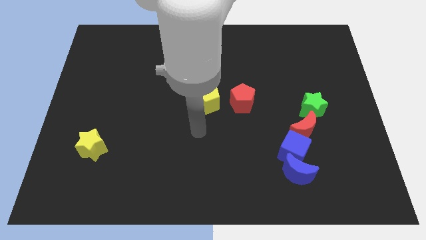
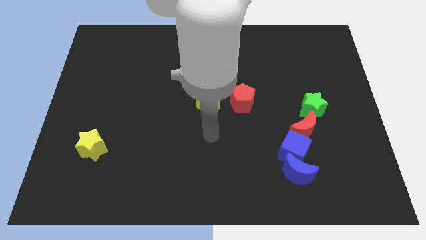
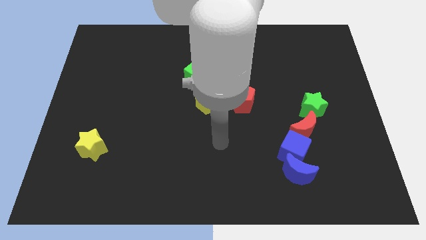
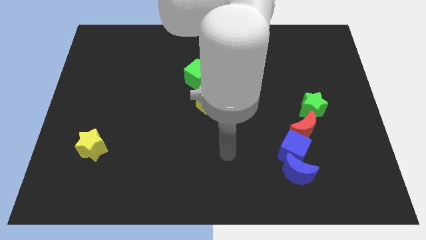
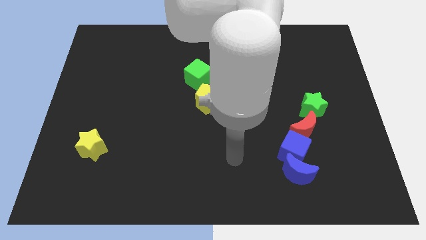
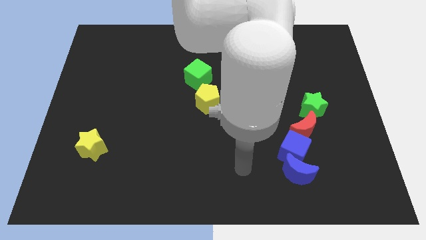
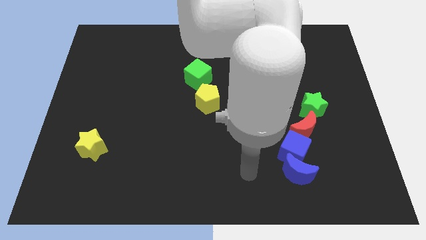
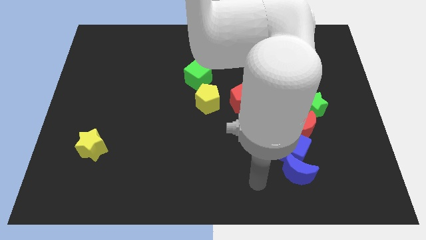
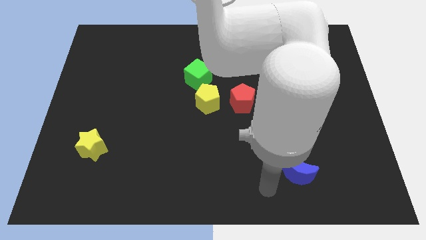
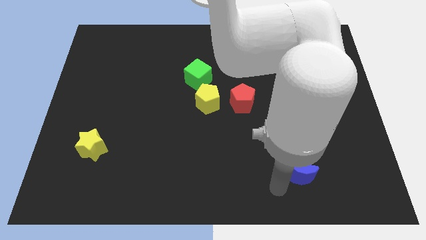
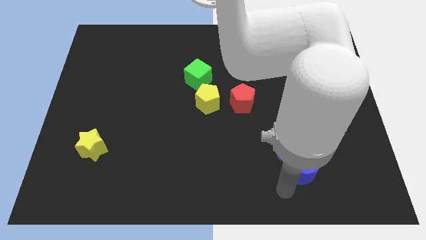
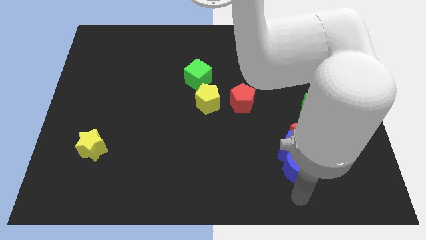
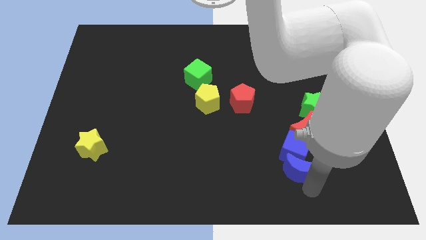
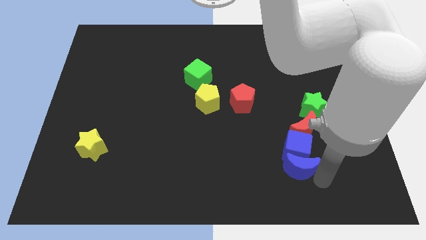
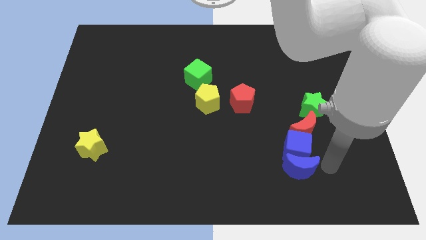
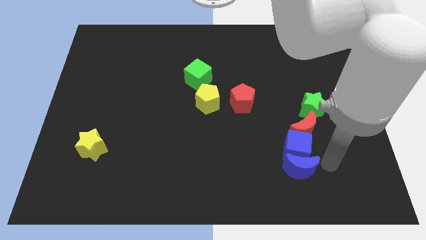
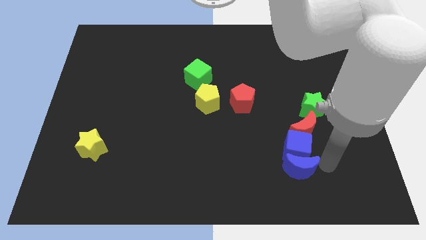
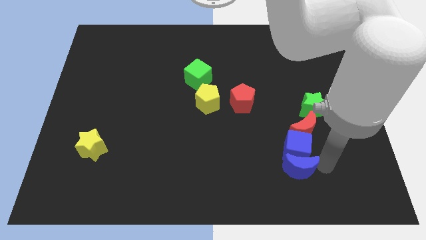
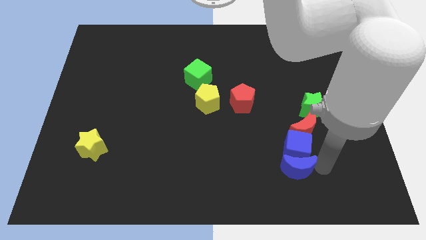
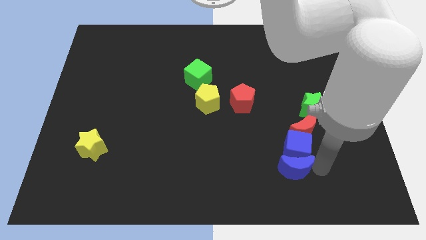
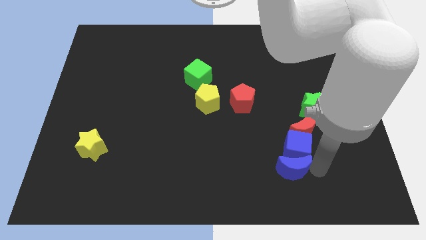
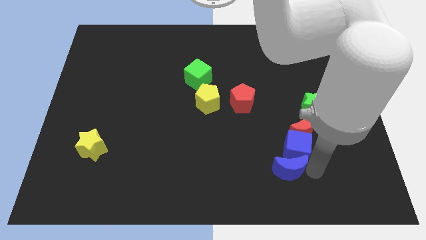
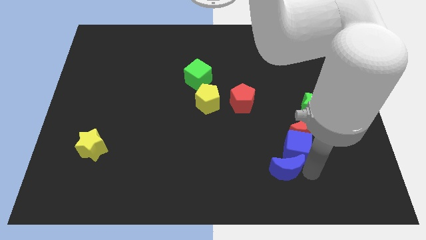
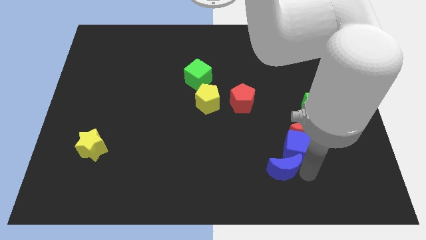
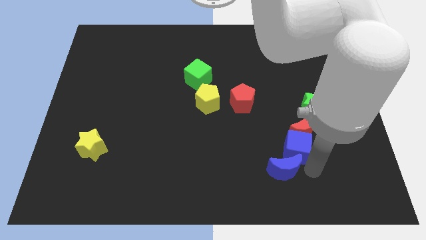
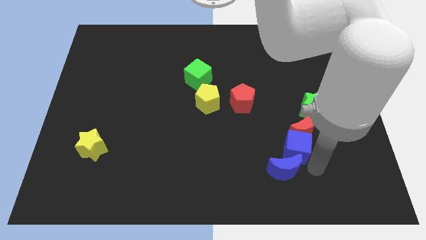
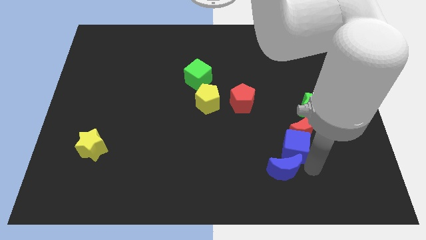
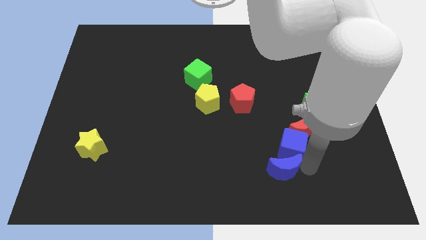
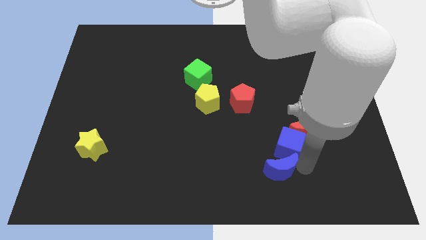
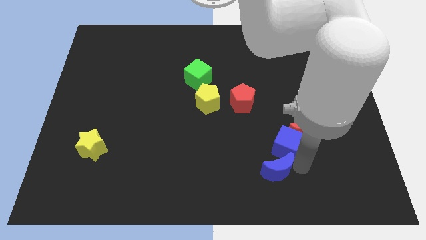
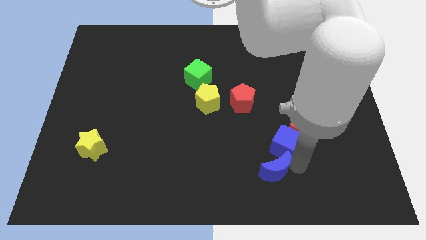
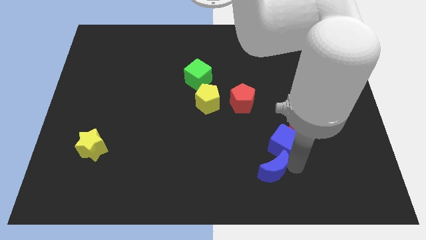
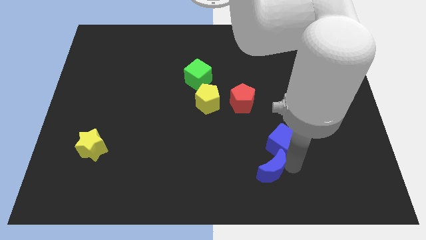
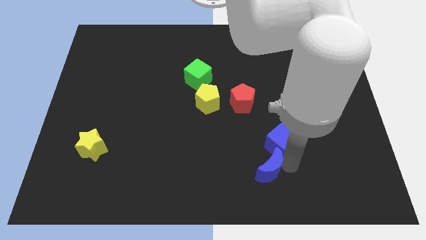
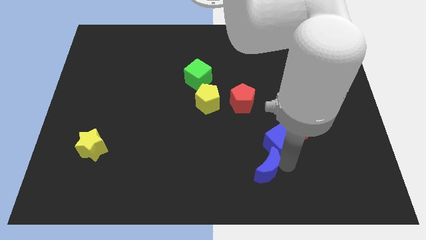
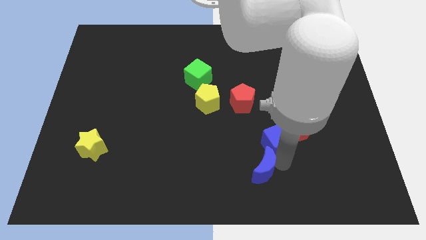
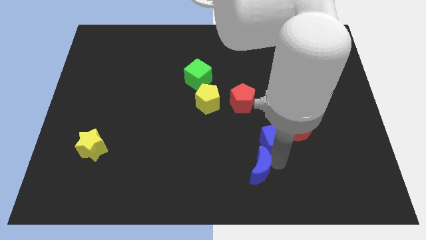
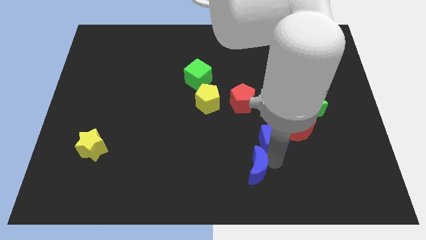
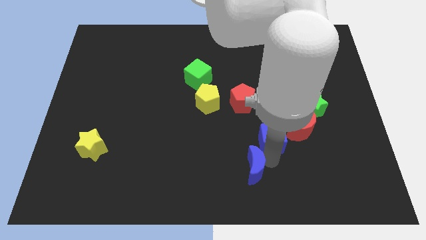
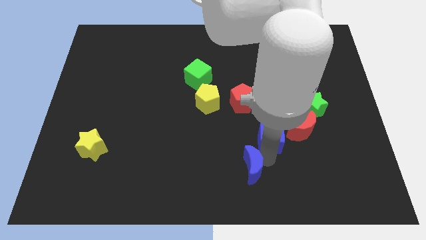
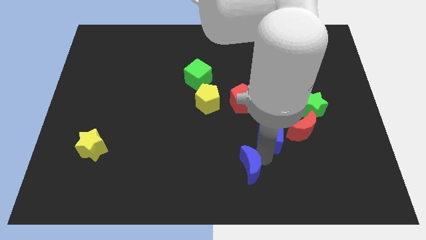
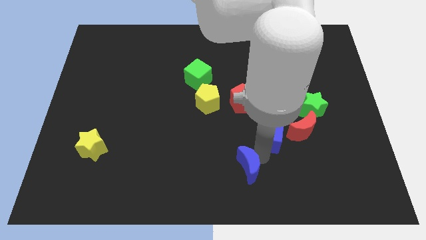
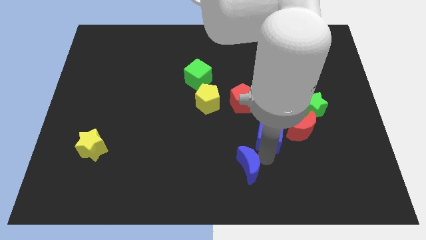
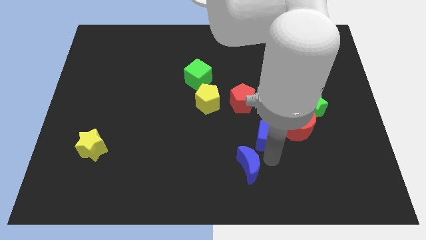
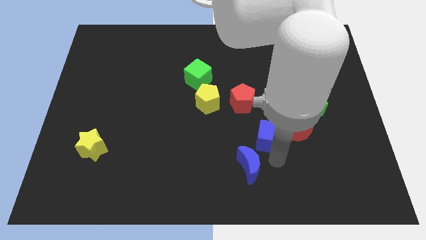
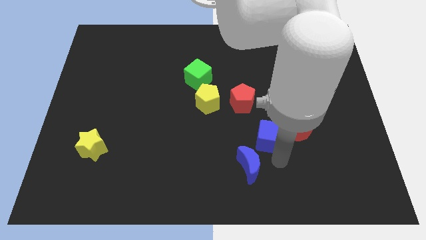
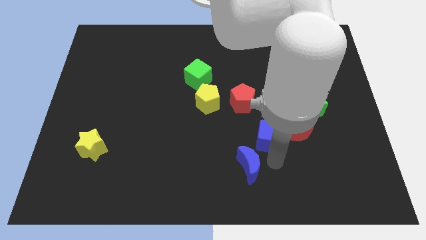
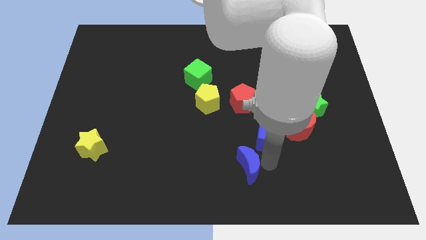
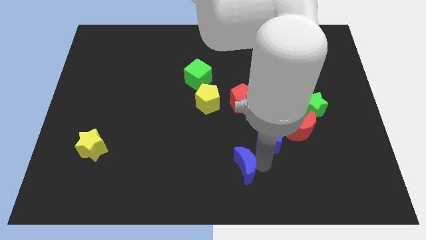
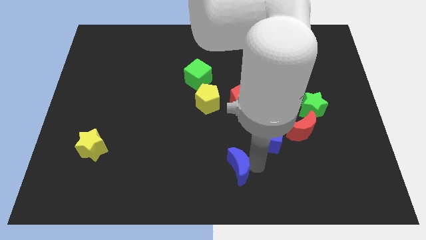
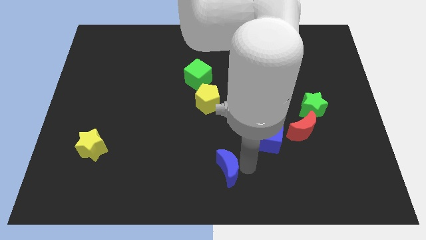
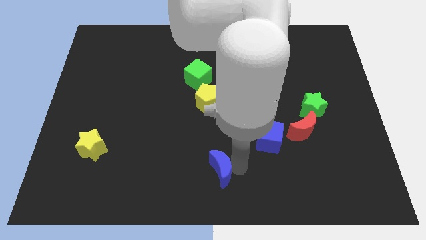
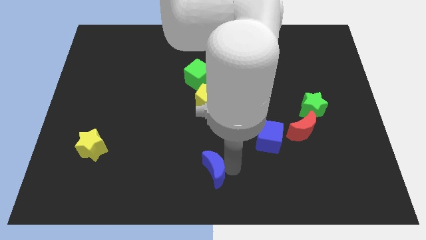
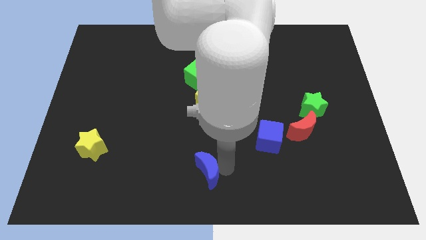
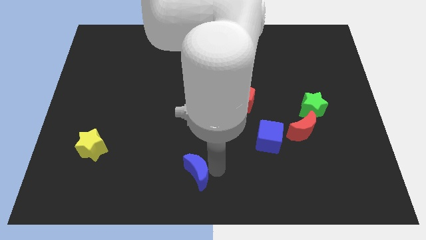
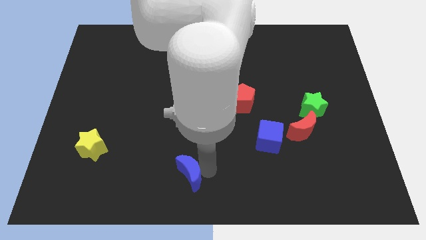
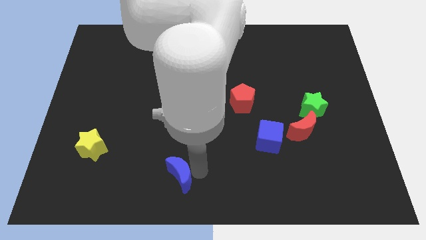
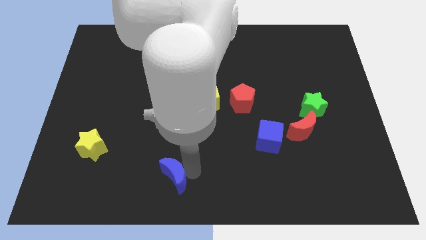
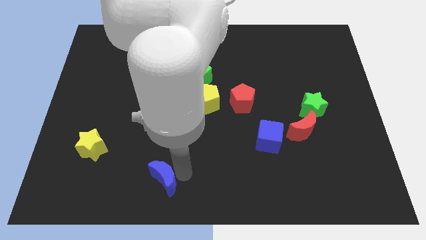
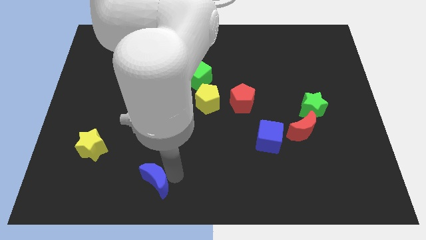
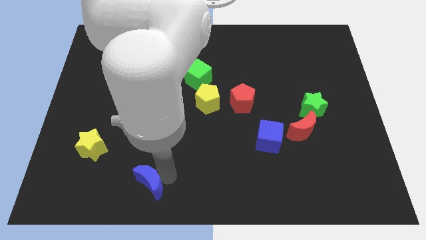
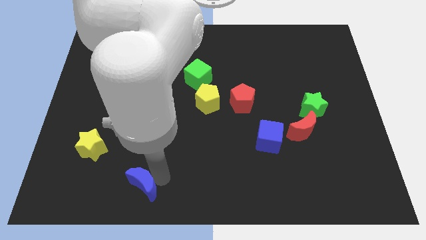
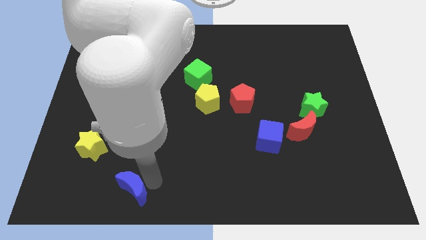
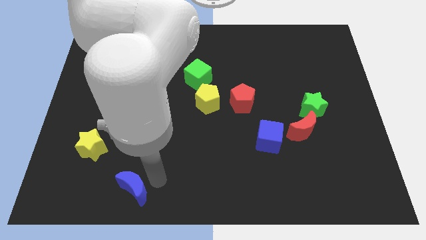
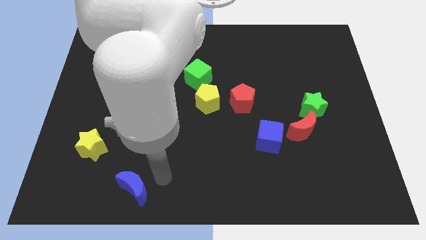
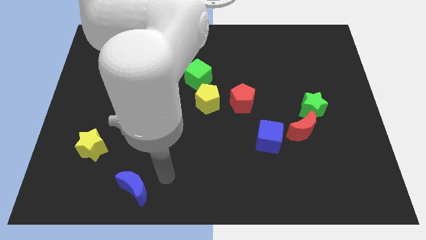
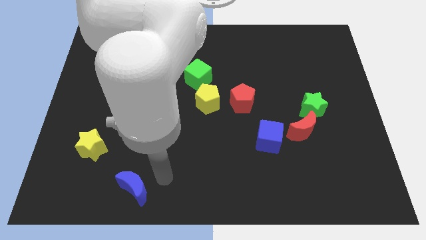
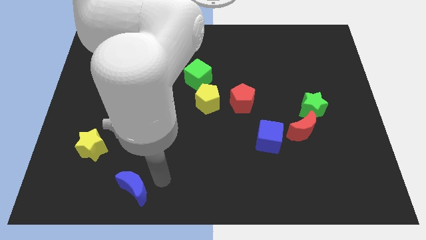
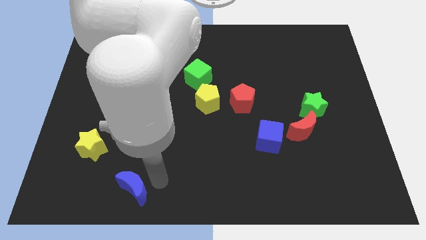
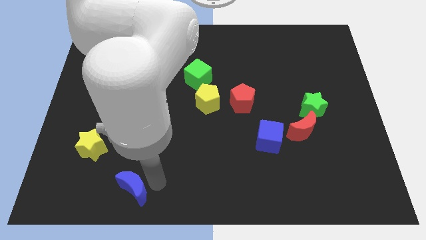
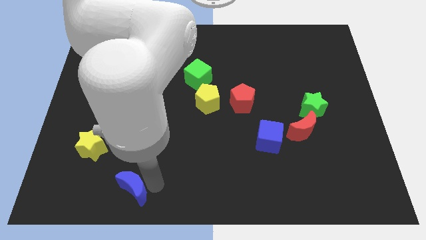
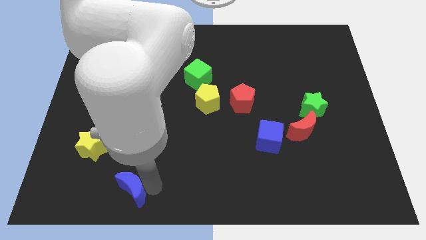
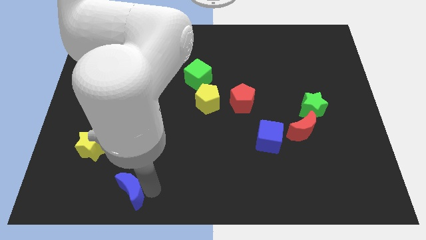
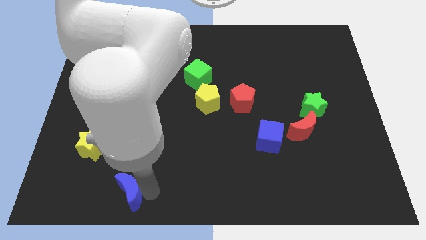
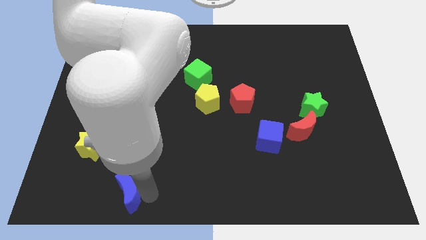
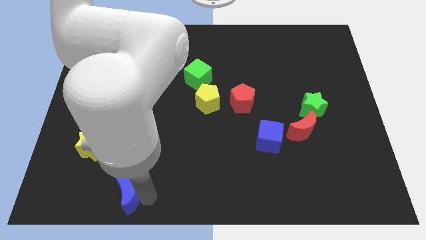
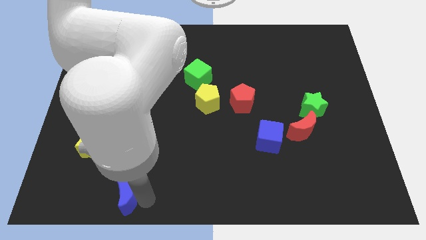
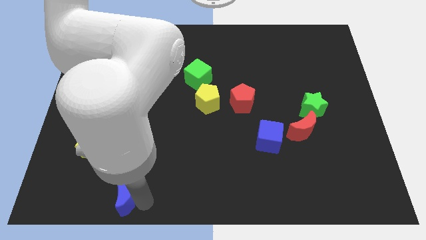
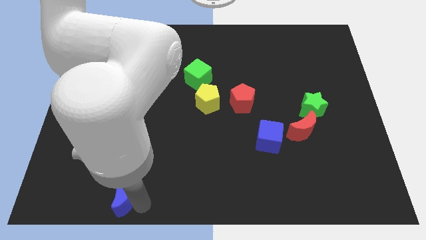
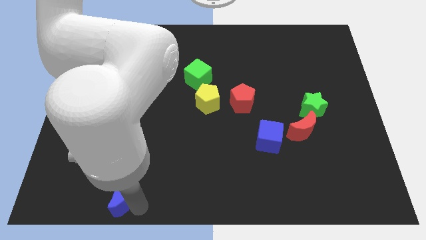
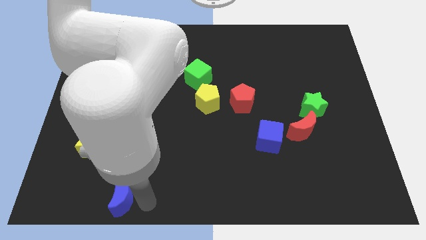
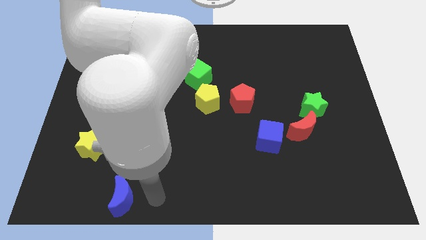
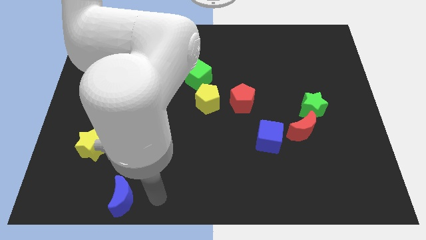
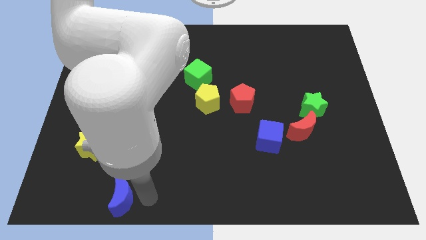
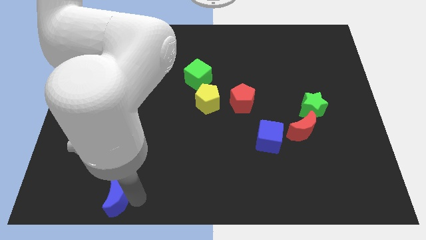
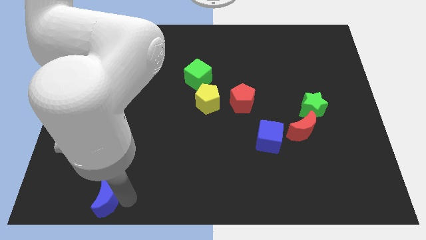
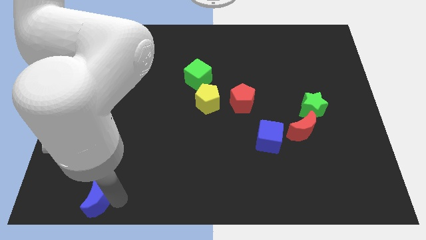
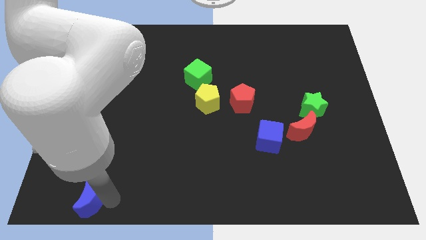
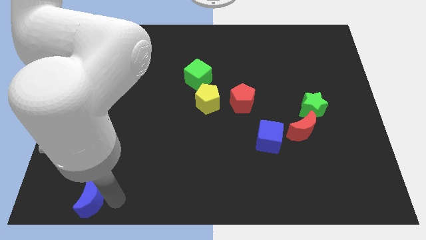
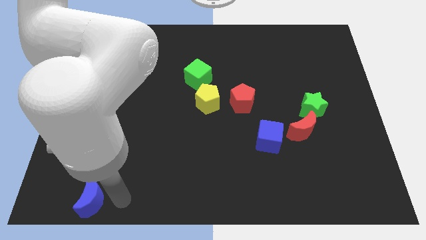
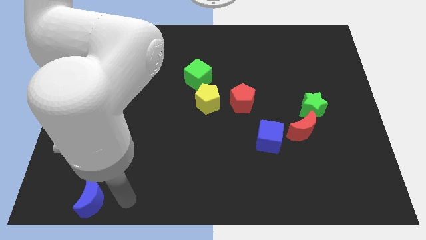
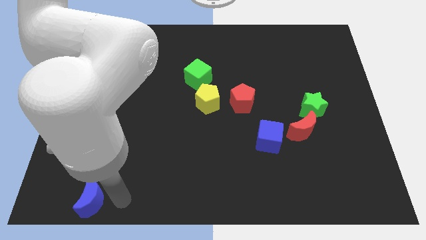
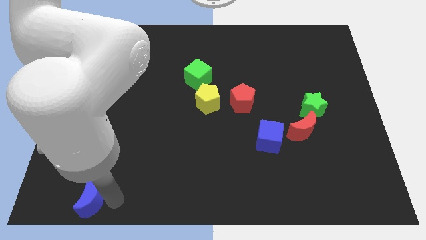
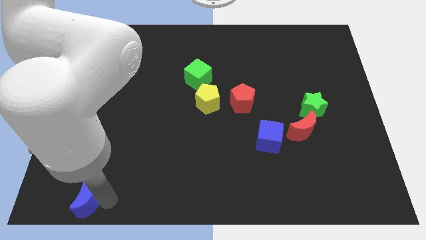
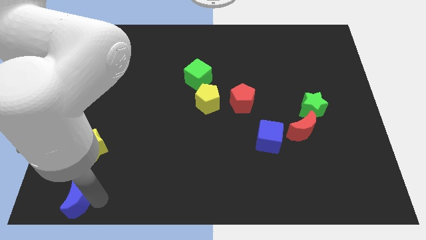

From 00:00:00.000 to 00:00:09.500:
slide the blue moon to the bottom left
